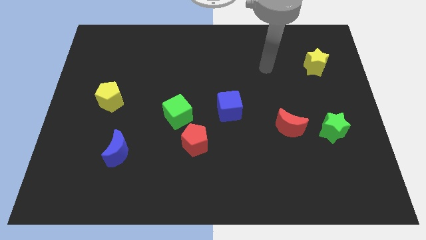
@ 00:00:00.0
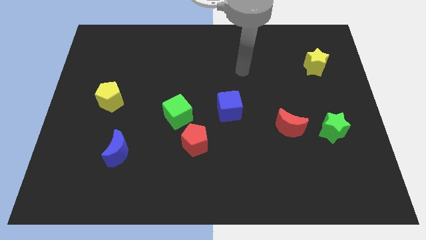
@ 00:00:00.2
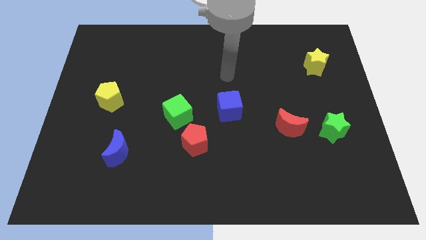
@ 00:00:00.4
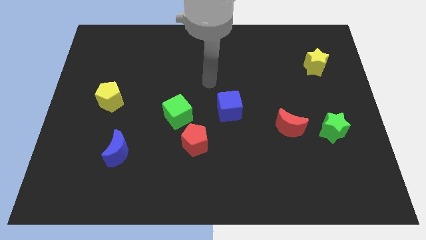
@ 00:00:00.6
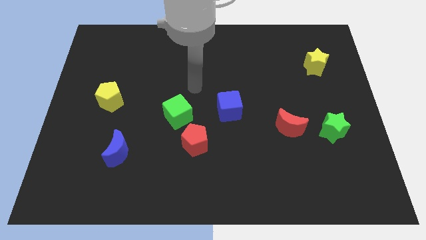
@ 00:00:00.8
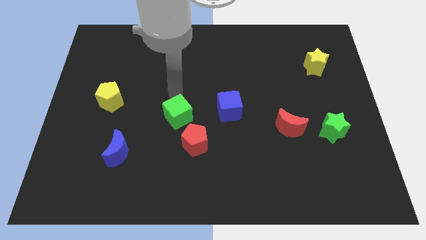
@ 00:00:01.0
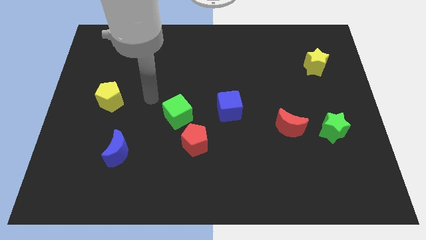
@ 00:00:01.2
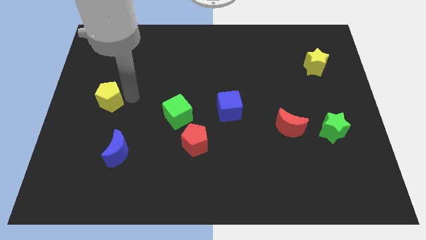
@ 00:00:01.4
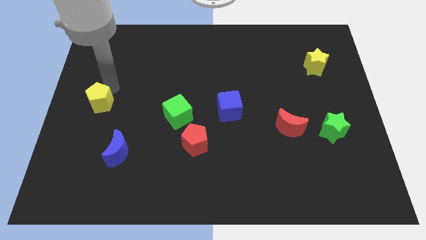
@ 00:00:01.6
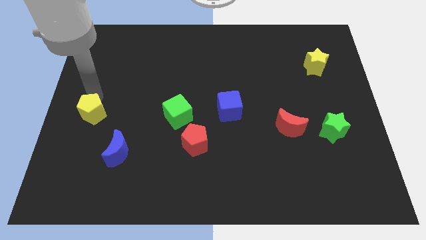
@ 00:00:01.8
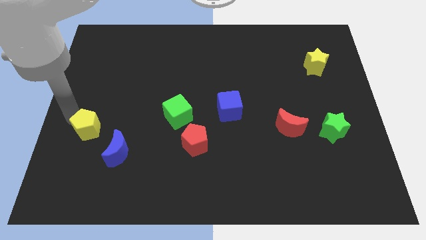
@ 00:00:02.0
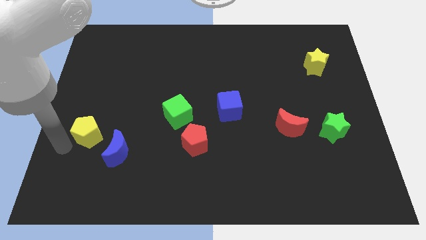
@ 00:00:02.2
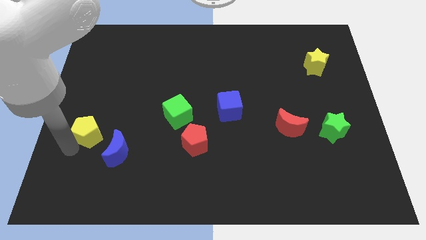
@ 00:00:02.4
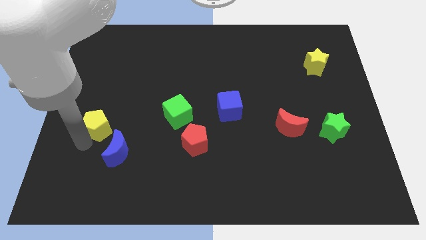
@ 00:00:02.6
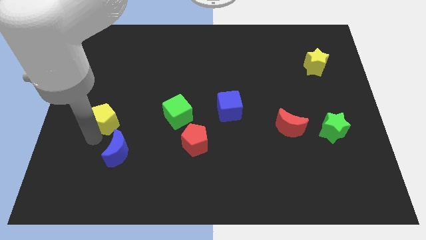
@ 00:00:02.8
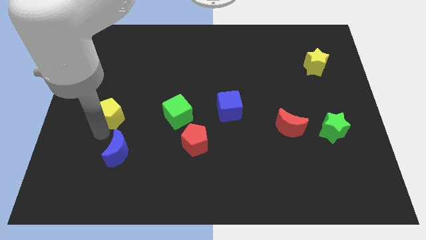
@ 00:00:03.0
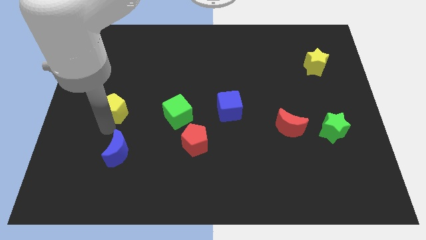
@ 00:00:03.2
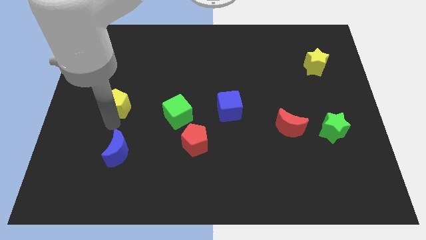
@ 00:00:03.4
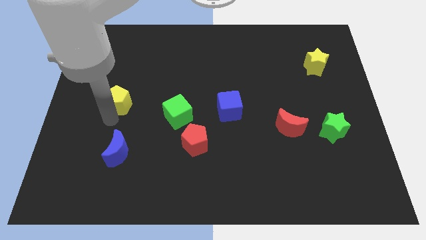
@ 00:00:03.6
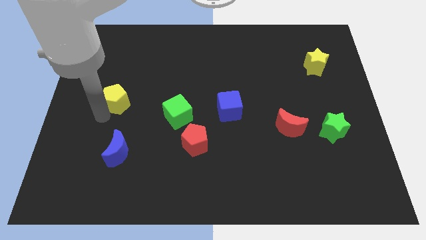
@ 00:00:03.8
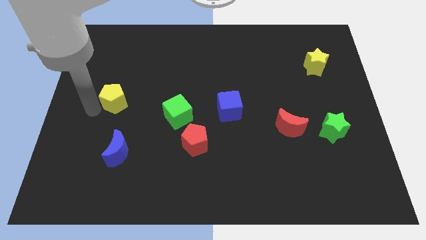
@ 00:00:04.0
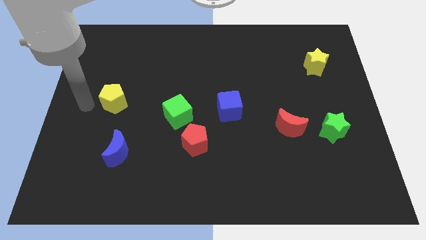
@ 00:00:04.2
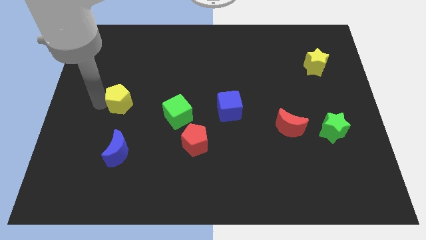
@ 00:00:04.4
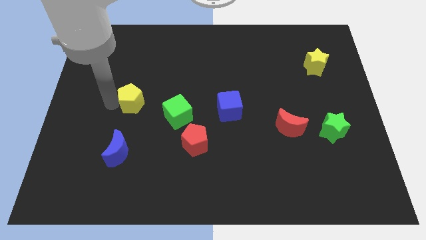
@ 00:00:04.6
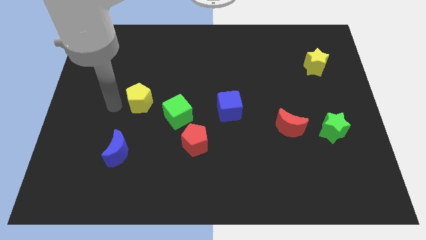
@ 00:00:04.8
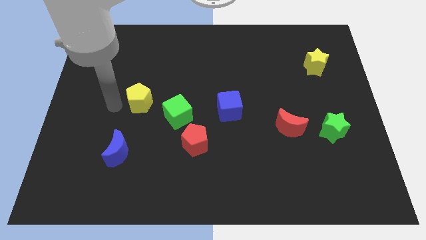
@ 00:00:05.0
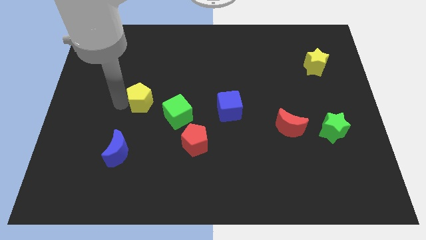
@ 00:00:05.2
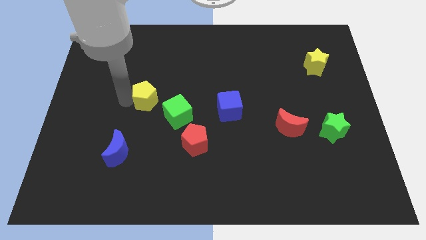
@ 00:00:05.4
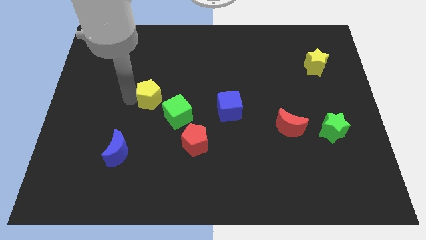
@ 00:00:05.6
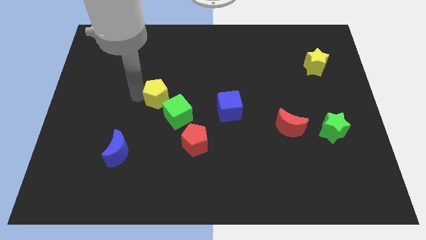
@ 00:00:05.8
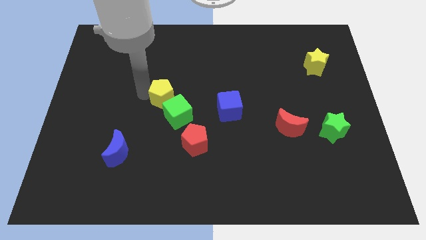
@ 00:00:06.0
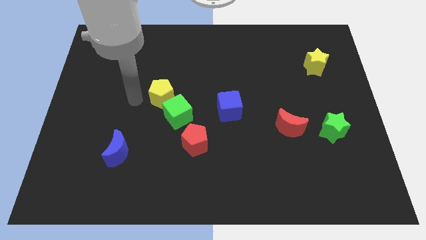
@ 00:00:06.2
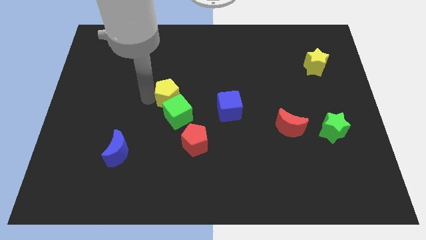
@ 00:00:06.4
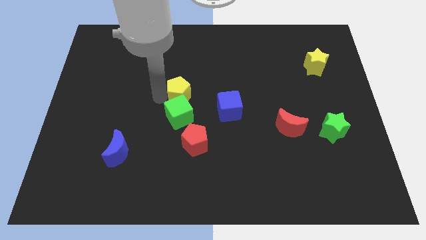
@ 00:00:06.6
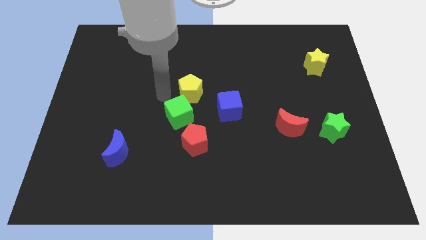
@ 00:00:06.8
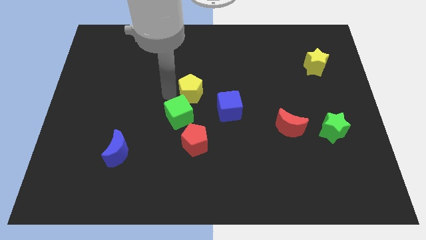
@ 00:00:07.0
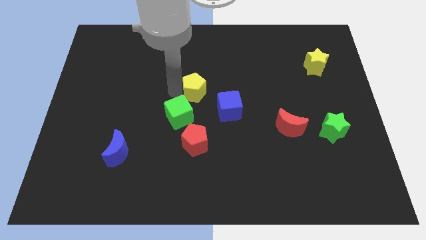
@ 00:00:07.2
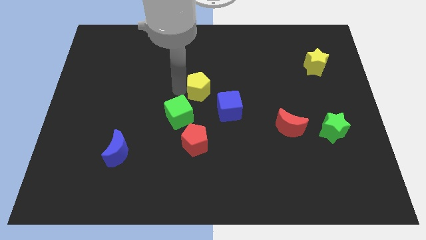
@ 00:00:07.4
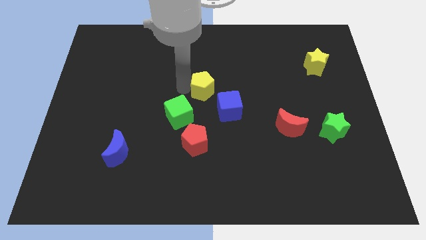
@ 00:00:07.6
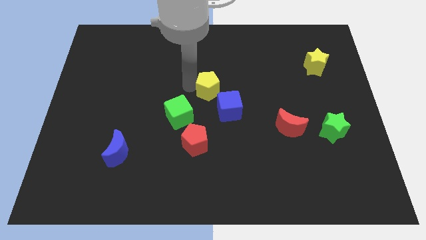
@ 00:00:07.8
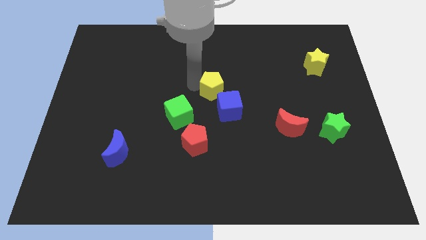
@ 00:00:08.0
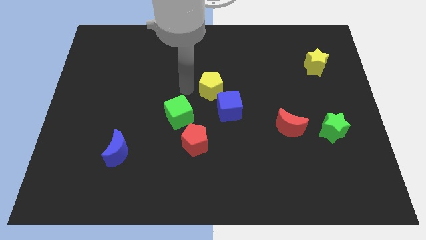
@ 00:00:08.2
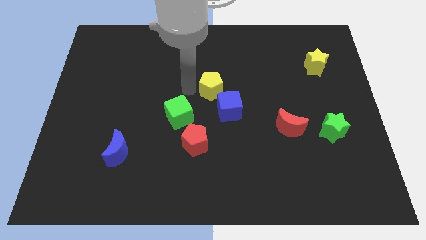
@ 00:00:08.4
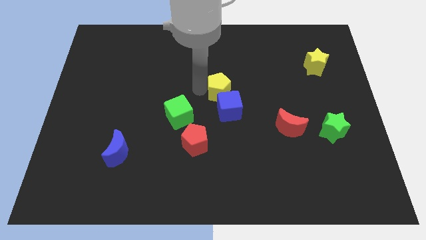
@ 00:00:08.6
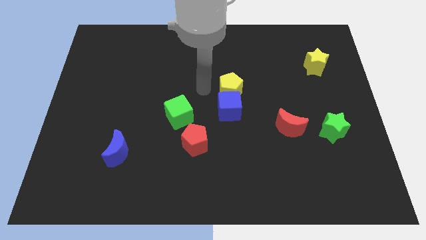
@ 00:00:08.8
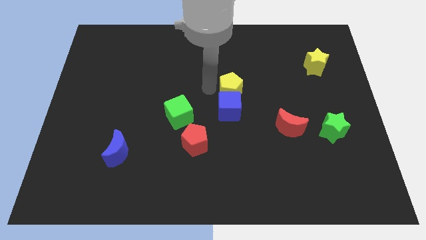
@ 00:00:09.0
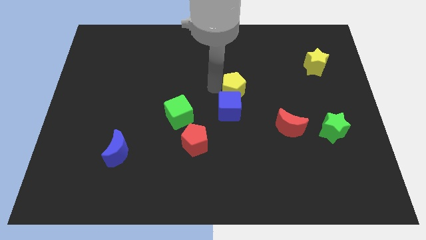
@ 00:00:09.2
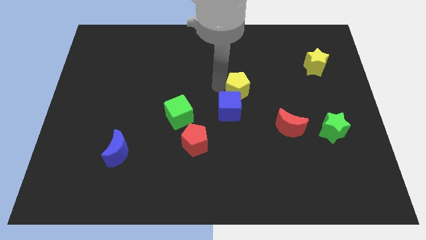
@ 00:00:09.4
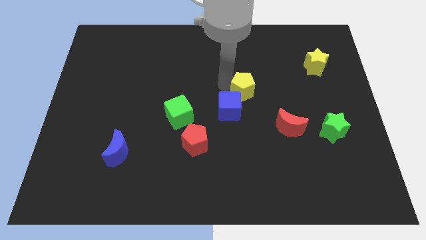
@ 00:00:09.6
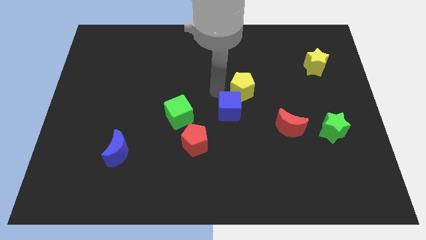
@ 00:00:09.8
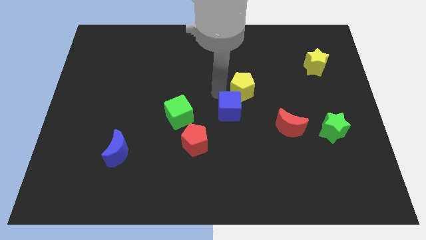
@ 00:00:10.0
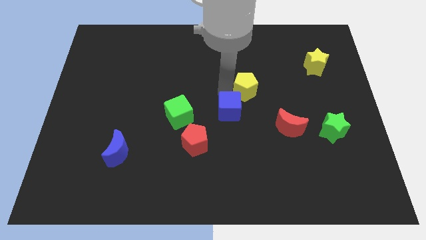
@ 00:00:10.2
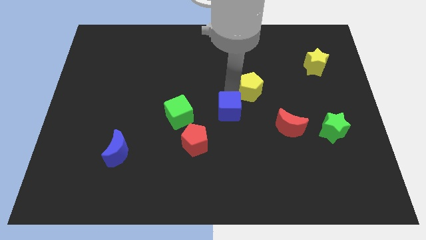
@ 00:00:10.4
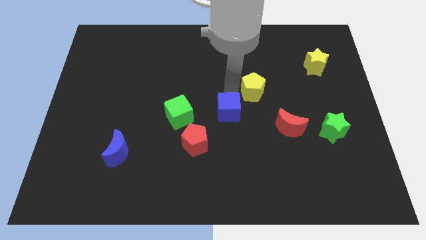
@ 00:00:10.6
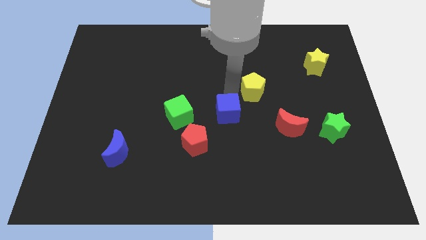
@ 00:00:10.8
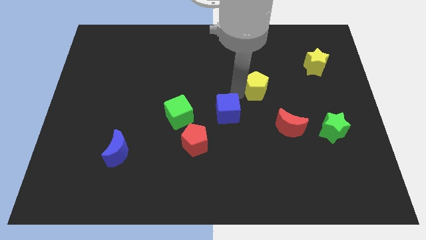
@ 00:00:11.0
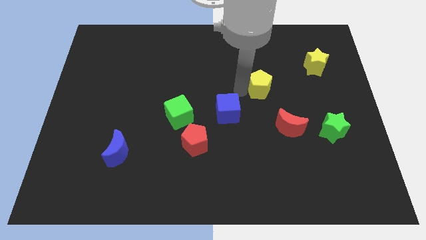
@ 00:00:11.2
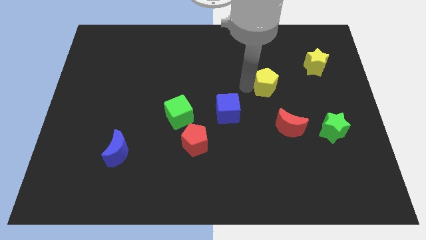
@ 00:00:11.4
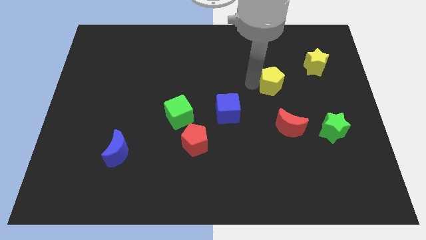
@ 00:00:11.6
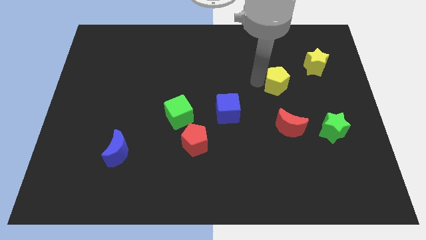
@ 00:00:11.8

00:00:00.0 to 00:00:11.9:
push the yellow pentagon to the bottom left of the yellow star
